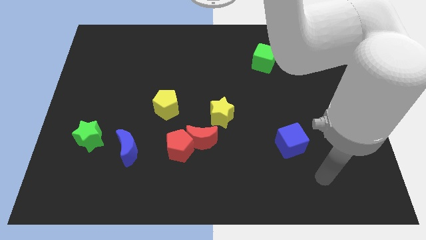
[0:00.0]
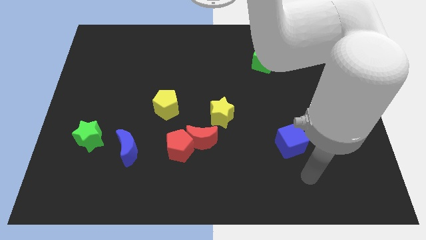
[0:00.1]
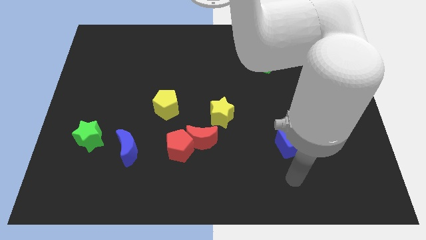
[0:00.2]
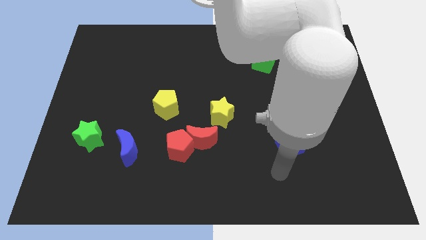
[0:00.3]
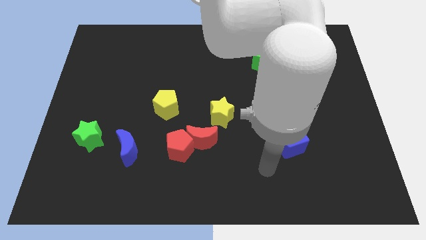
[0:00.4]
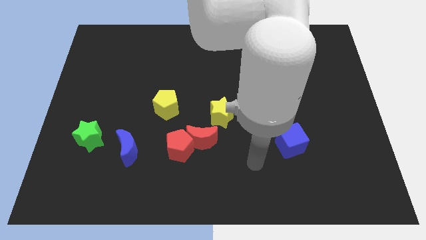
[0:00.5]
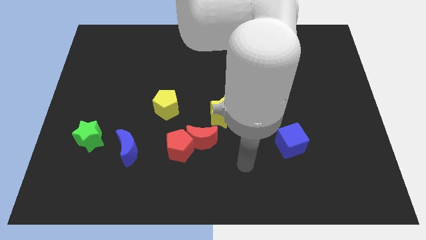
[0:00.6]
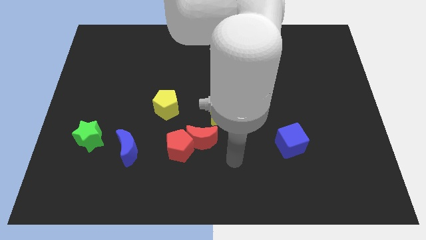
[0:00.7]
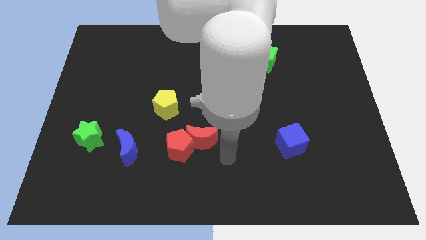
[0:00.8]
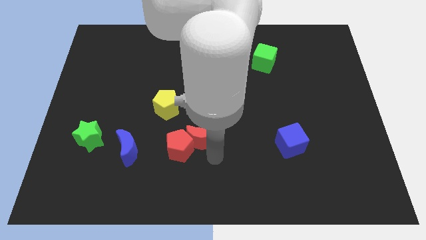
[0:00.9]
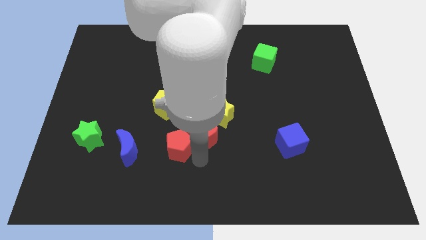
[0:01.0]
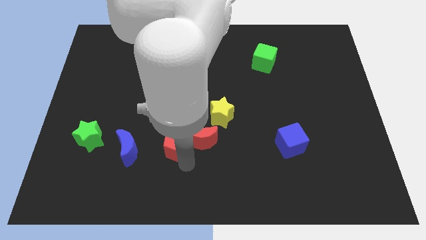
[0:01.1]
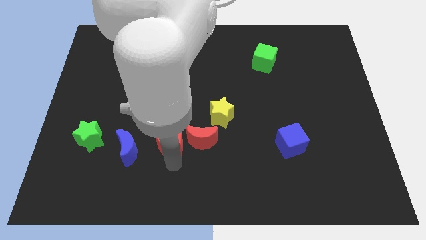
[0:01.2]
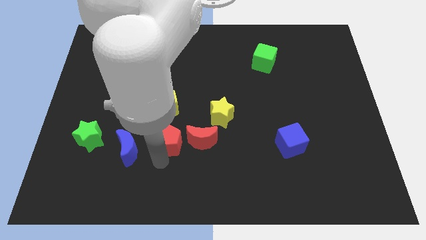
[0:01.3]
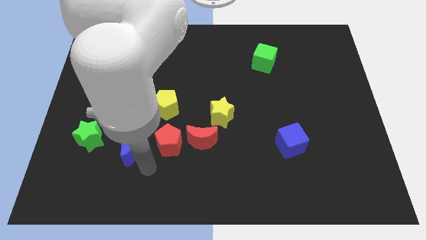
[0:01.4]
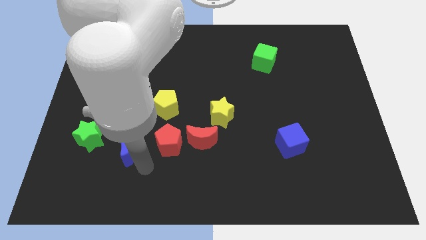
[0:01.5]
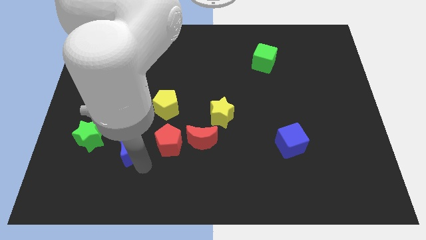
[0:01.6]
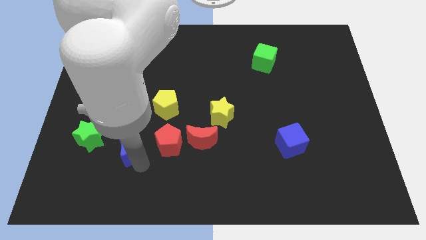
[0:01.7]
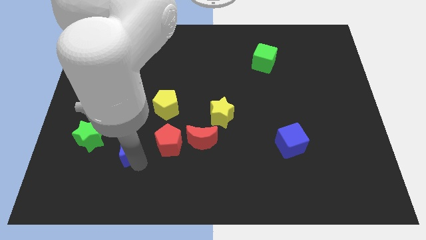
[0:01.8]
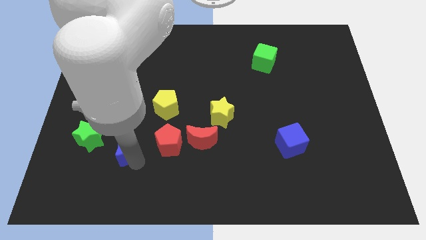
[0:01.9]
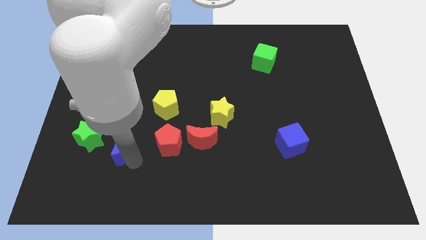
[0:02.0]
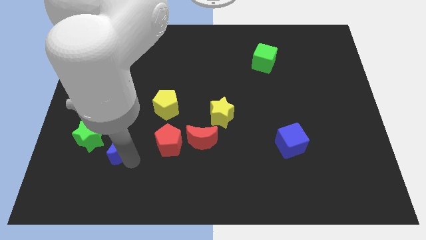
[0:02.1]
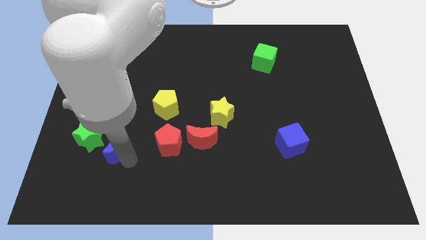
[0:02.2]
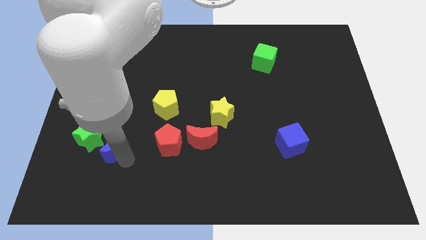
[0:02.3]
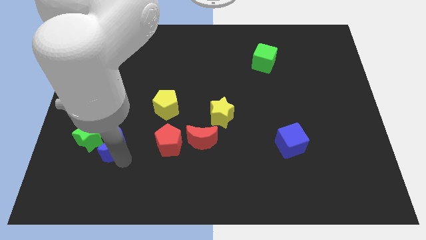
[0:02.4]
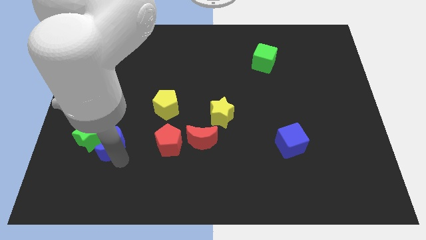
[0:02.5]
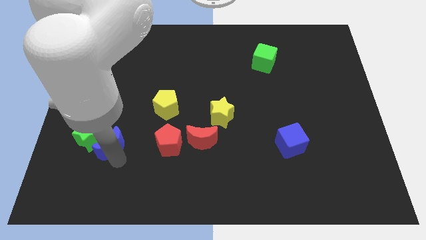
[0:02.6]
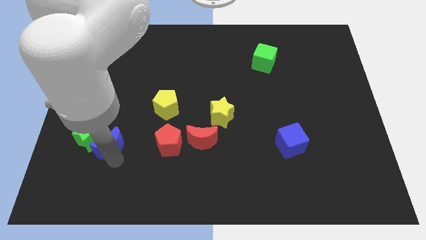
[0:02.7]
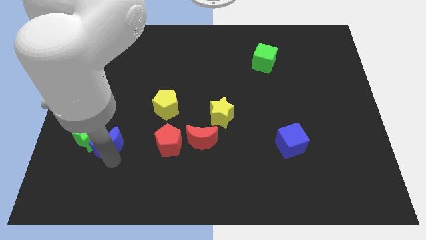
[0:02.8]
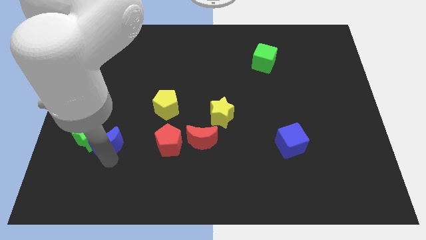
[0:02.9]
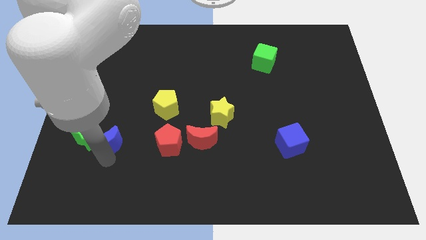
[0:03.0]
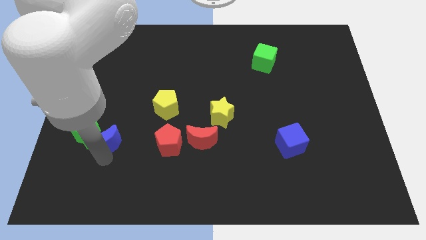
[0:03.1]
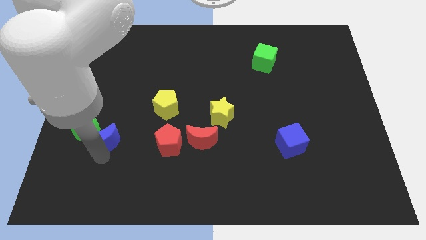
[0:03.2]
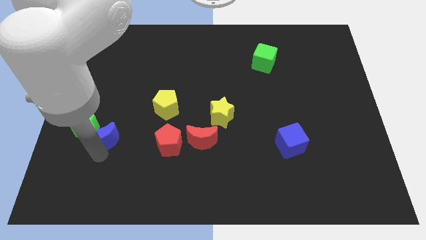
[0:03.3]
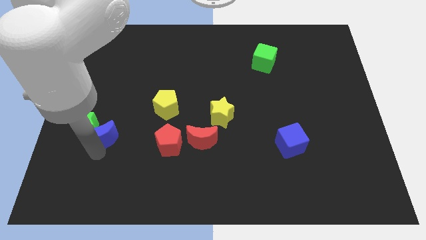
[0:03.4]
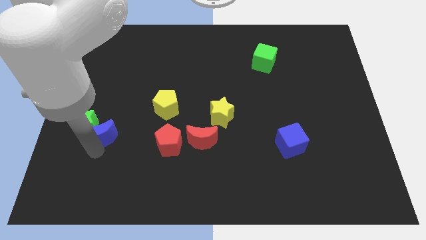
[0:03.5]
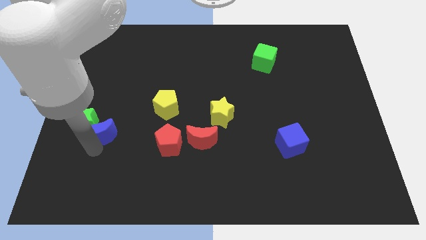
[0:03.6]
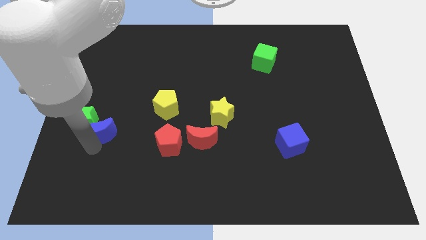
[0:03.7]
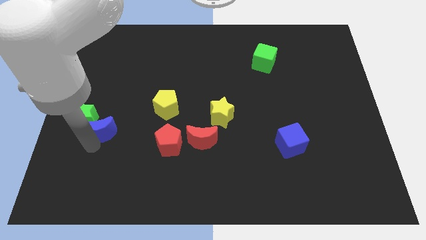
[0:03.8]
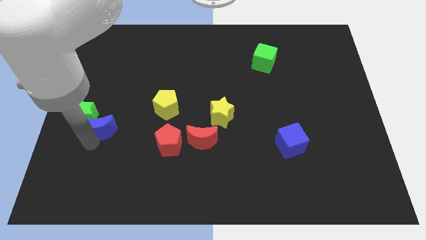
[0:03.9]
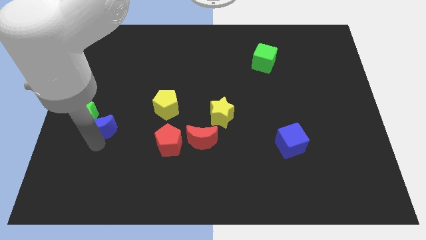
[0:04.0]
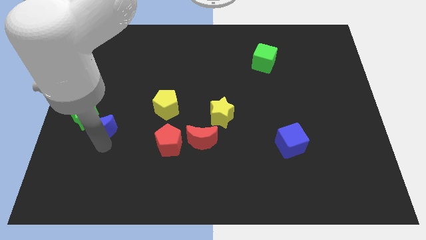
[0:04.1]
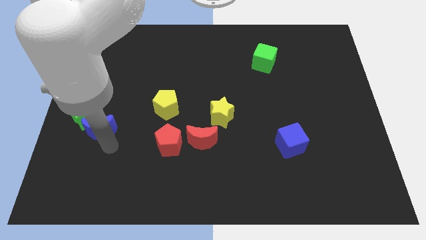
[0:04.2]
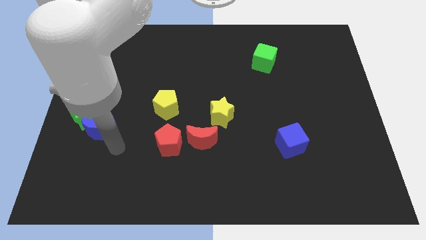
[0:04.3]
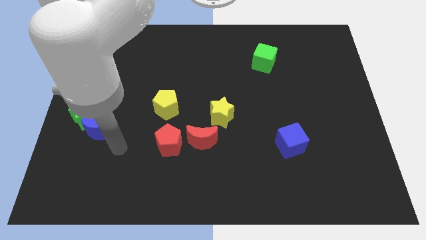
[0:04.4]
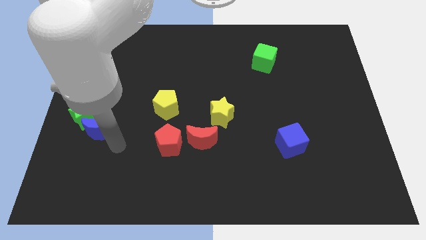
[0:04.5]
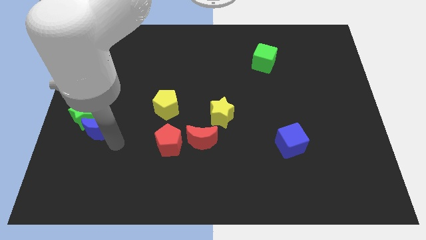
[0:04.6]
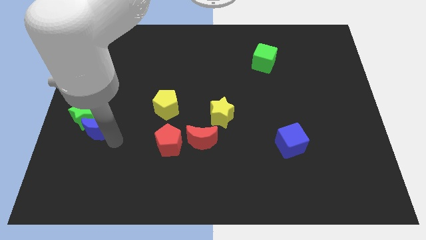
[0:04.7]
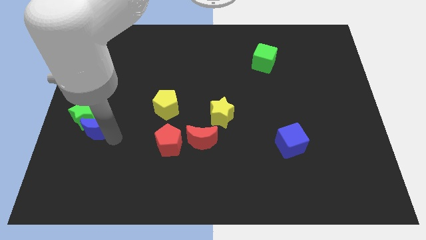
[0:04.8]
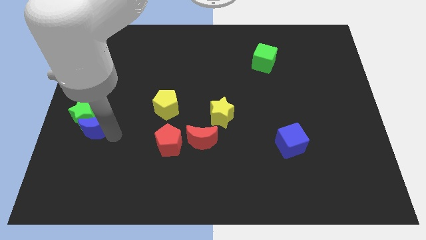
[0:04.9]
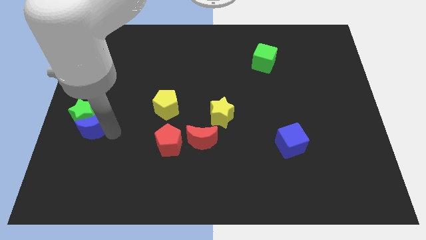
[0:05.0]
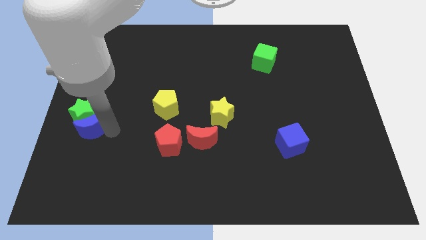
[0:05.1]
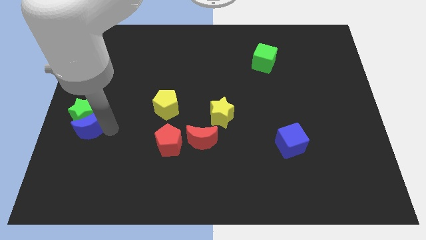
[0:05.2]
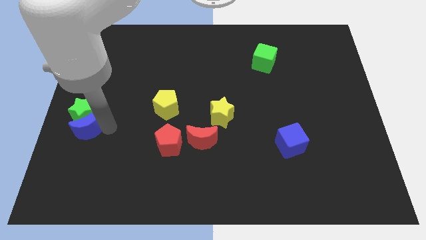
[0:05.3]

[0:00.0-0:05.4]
move the blue moon to the left side of the board

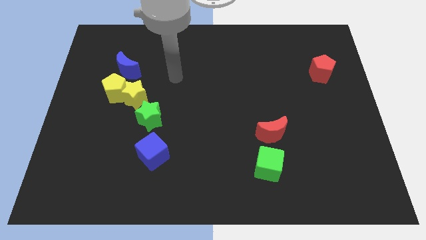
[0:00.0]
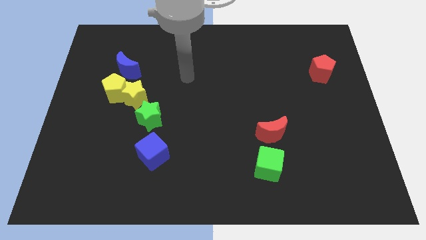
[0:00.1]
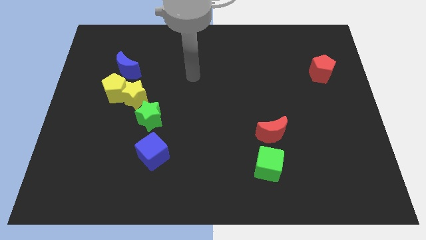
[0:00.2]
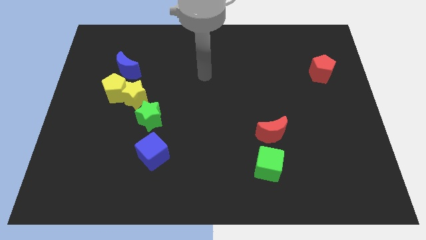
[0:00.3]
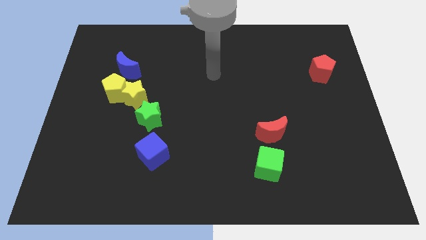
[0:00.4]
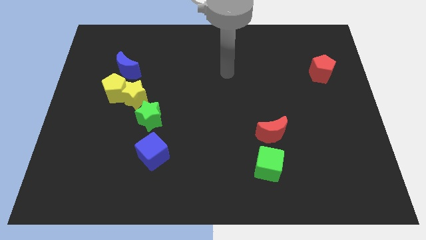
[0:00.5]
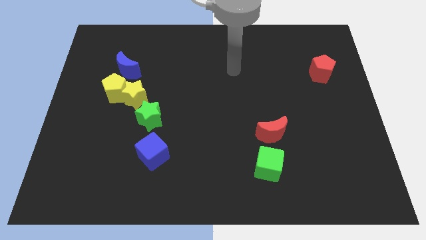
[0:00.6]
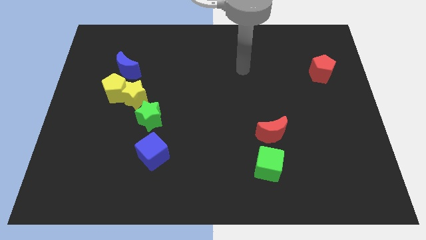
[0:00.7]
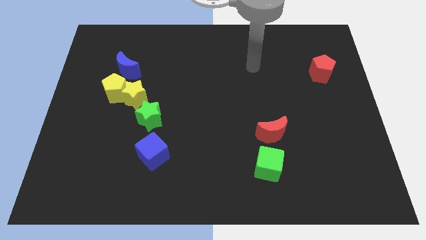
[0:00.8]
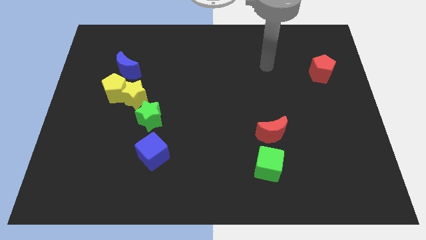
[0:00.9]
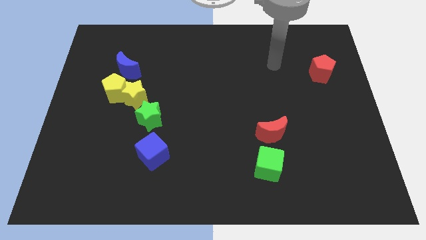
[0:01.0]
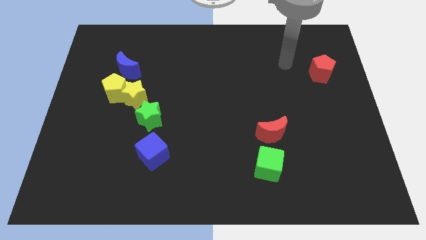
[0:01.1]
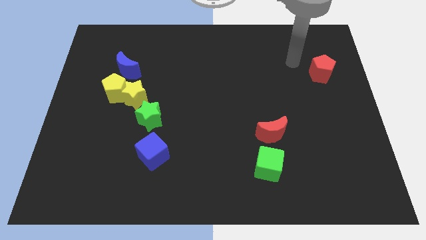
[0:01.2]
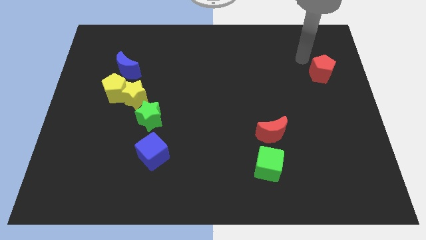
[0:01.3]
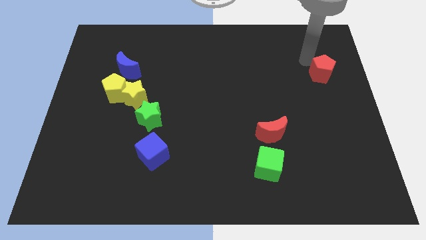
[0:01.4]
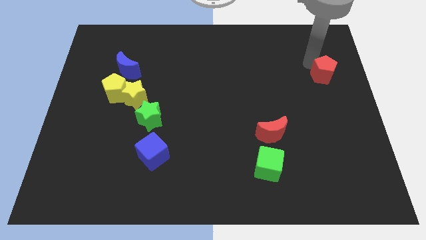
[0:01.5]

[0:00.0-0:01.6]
put the red pentagon to the right side
